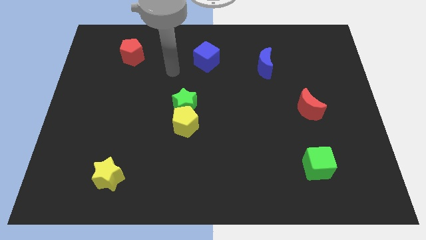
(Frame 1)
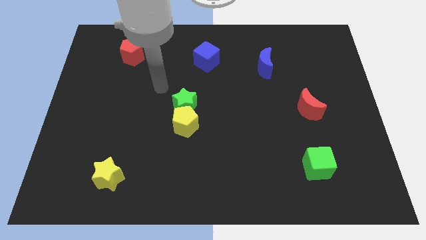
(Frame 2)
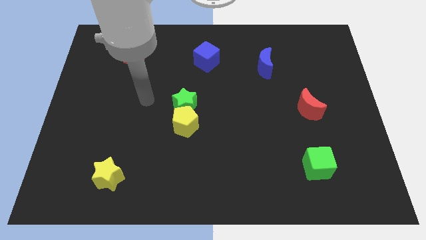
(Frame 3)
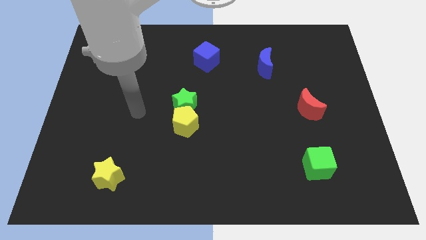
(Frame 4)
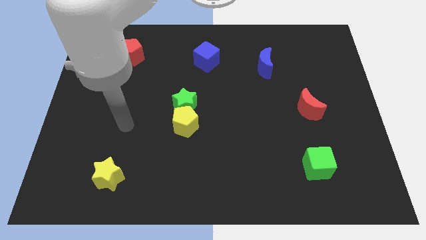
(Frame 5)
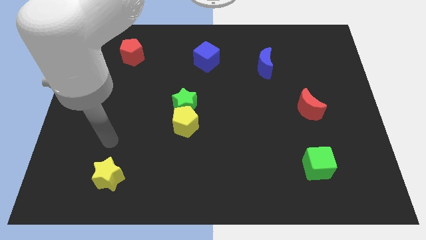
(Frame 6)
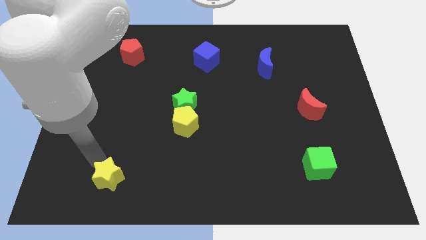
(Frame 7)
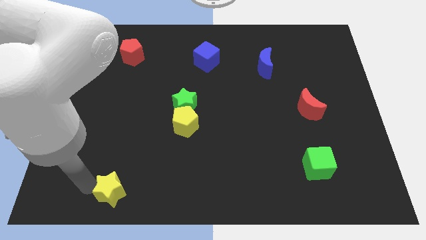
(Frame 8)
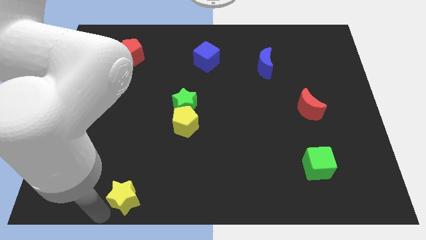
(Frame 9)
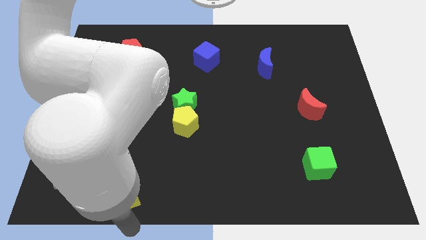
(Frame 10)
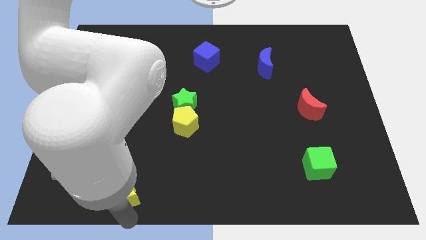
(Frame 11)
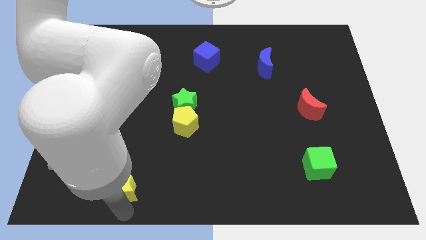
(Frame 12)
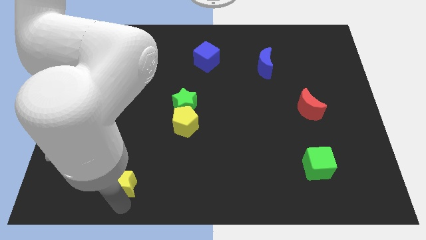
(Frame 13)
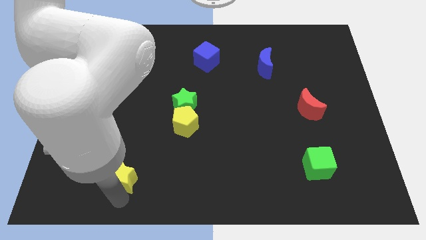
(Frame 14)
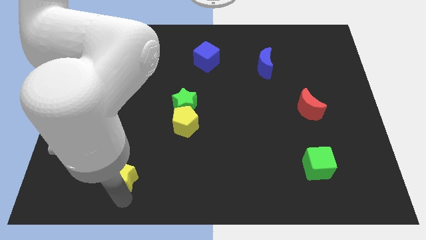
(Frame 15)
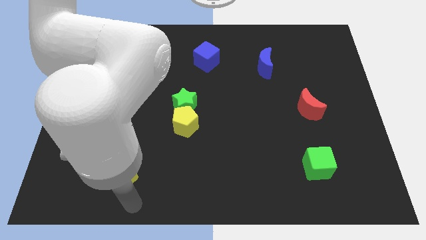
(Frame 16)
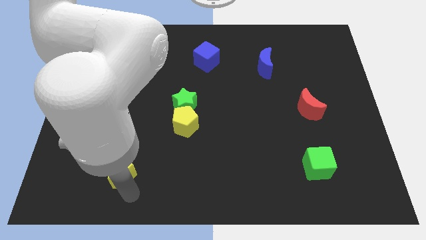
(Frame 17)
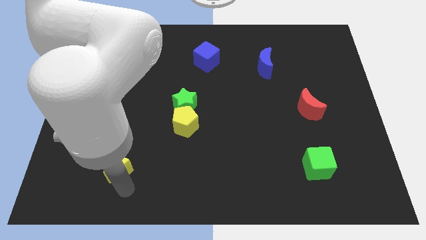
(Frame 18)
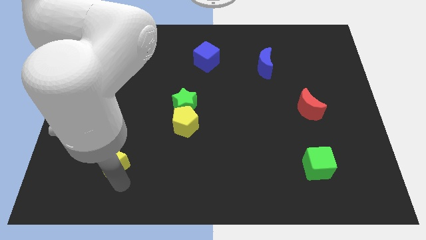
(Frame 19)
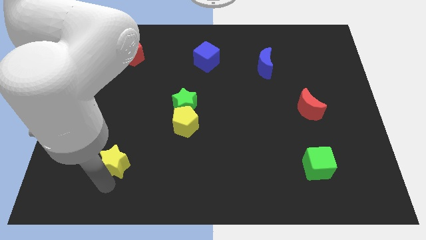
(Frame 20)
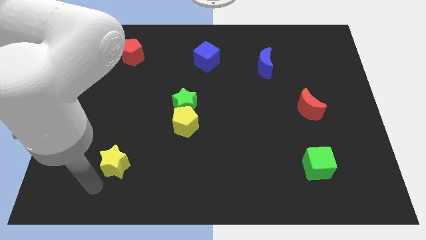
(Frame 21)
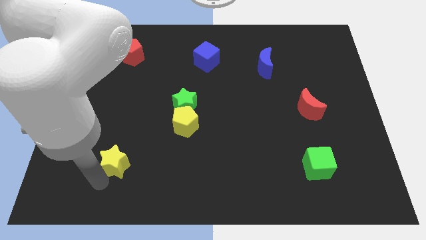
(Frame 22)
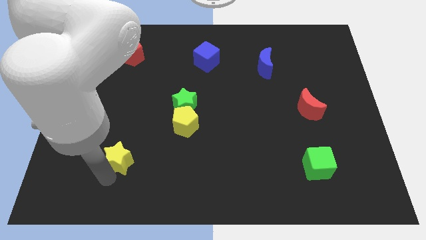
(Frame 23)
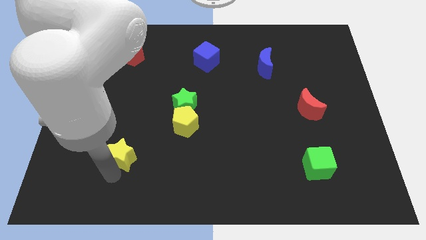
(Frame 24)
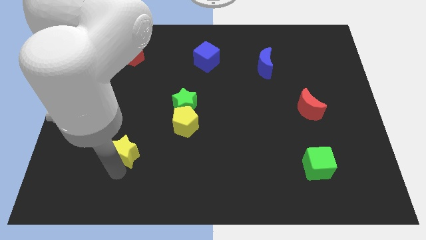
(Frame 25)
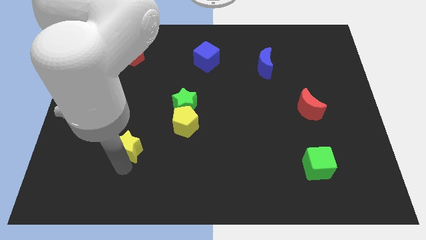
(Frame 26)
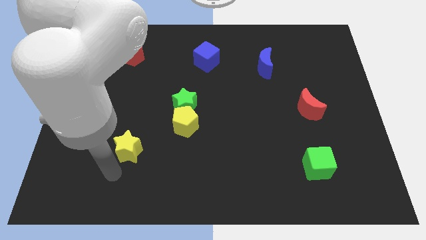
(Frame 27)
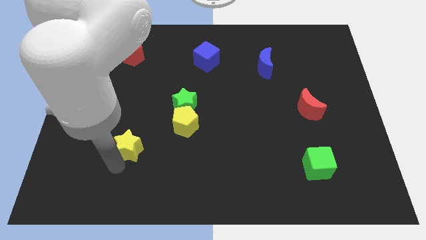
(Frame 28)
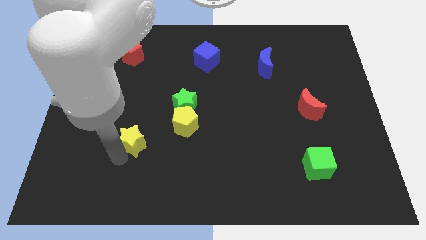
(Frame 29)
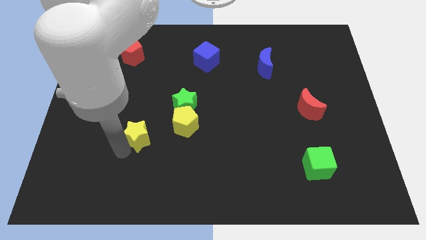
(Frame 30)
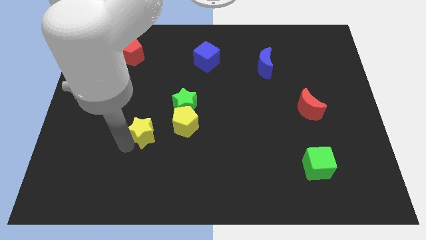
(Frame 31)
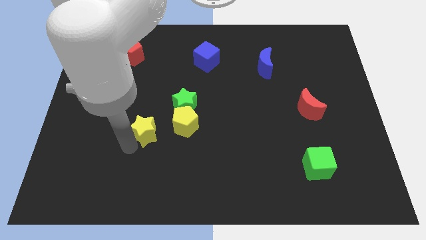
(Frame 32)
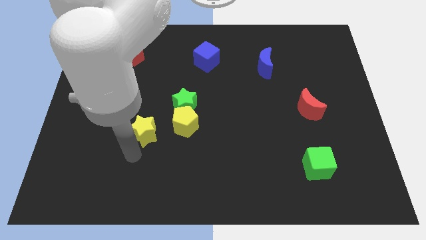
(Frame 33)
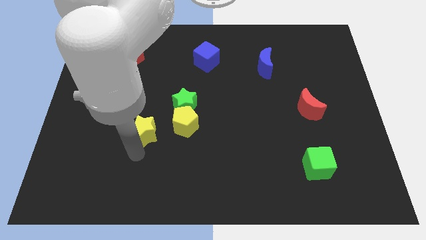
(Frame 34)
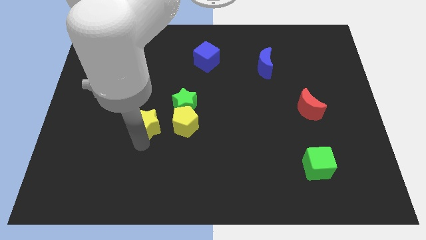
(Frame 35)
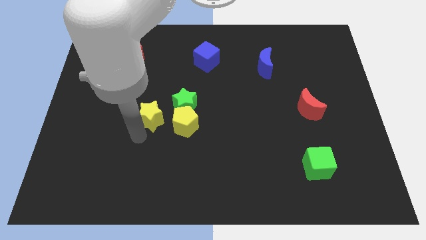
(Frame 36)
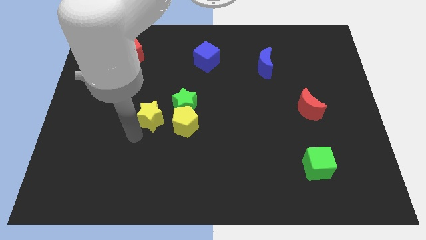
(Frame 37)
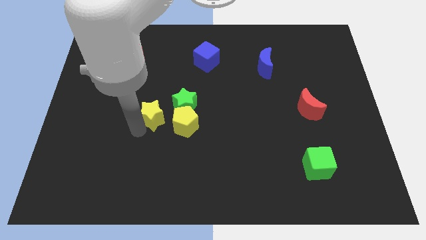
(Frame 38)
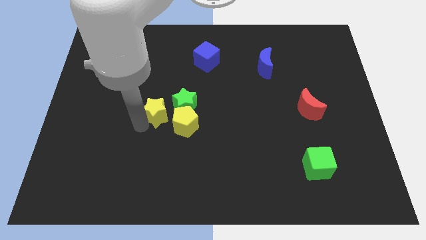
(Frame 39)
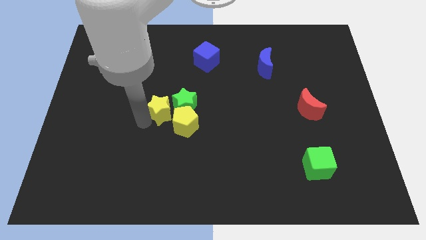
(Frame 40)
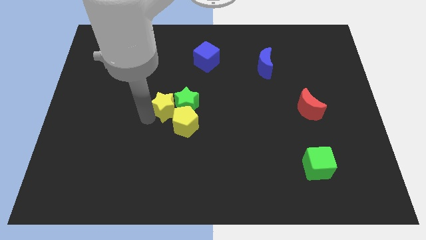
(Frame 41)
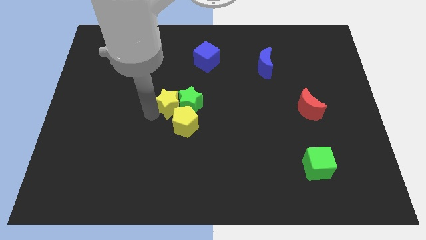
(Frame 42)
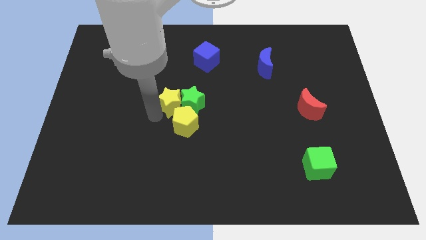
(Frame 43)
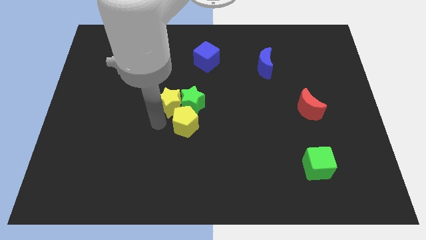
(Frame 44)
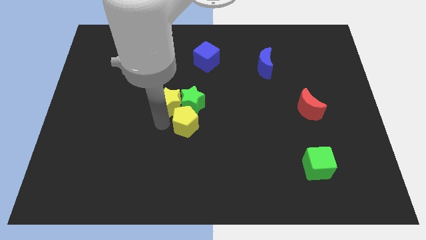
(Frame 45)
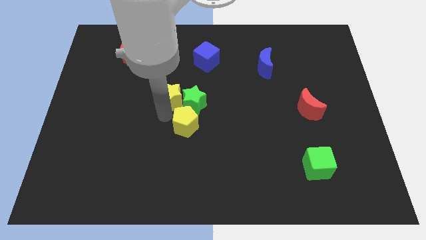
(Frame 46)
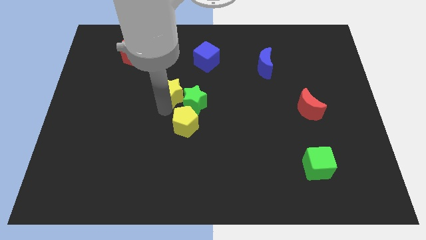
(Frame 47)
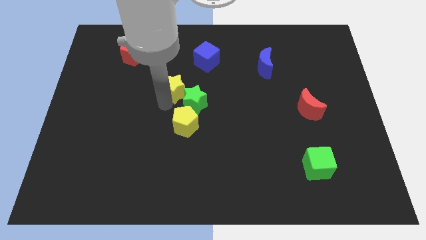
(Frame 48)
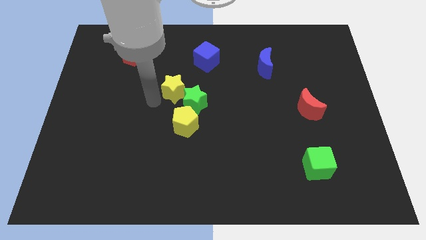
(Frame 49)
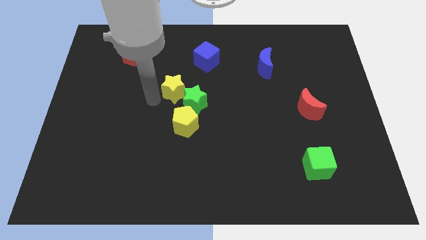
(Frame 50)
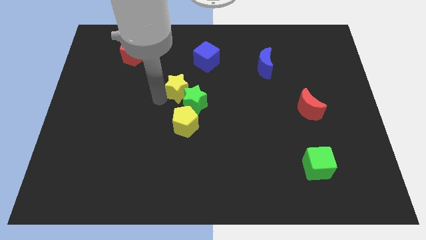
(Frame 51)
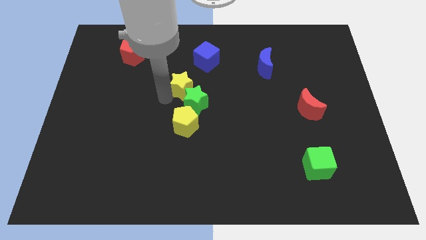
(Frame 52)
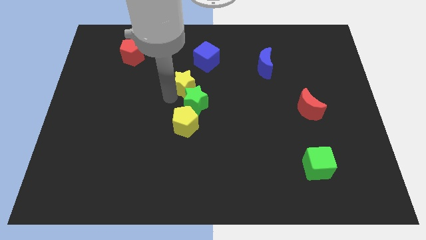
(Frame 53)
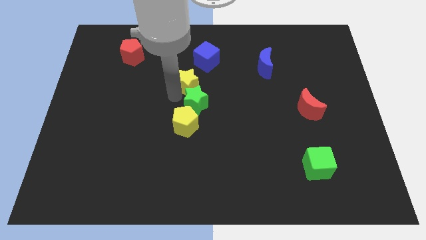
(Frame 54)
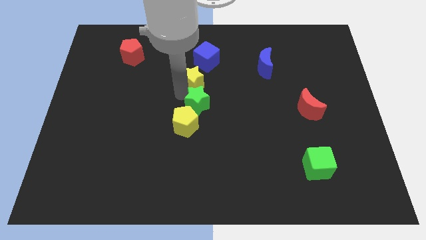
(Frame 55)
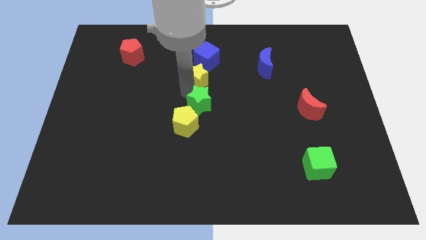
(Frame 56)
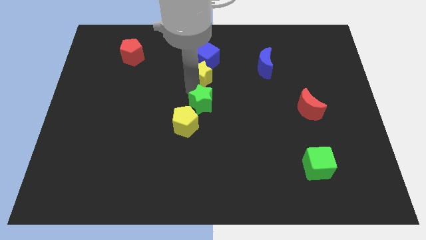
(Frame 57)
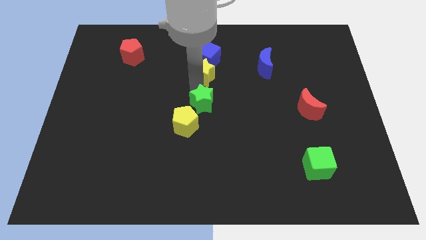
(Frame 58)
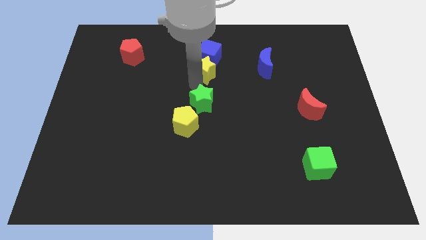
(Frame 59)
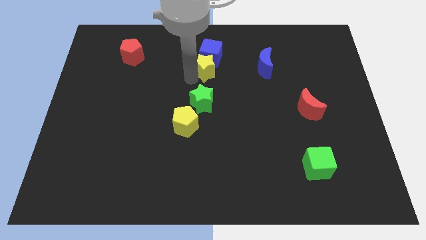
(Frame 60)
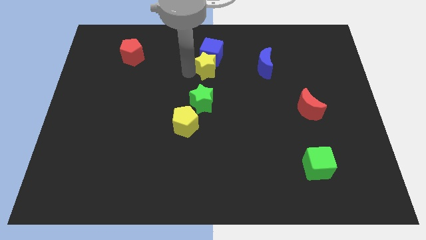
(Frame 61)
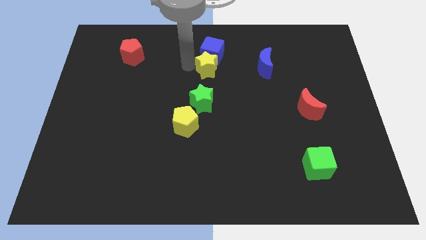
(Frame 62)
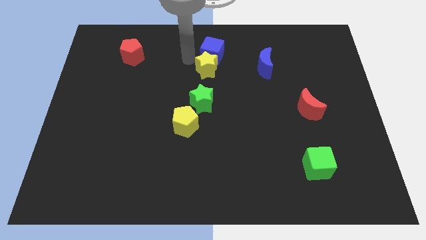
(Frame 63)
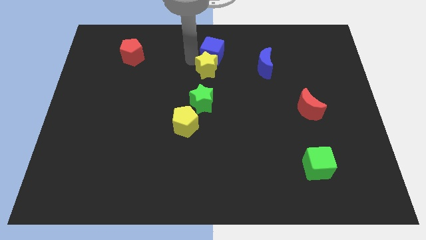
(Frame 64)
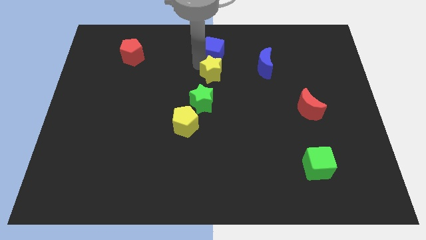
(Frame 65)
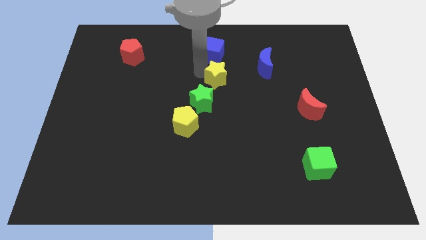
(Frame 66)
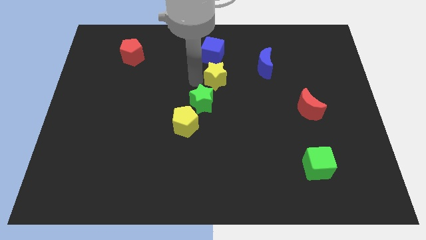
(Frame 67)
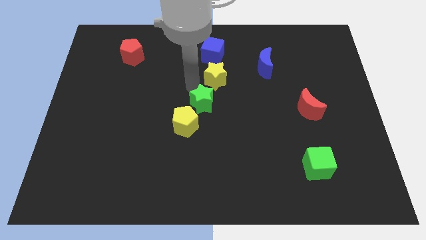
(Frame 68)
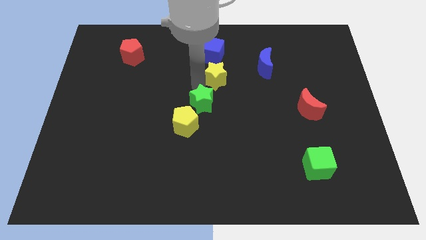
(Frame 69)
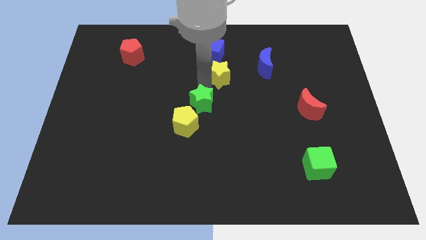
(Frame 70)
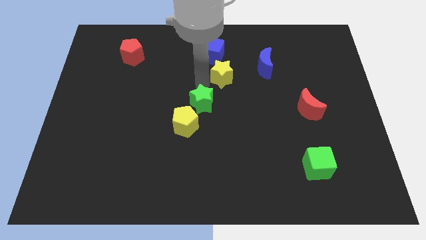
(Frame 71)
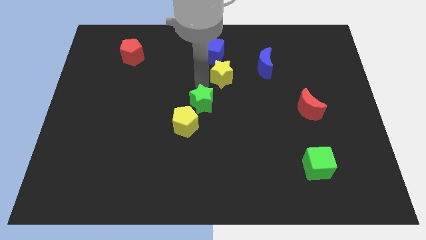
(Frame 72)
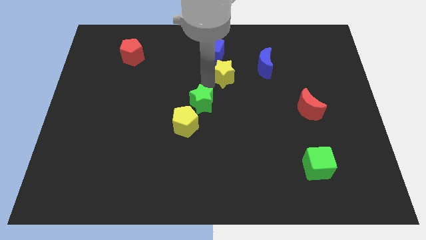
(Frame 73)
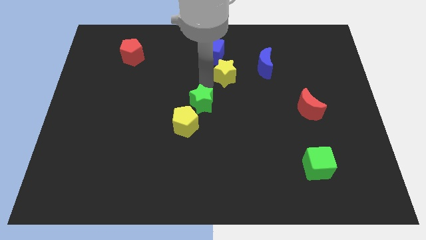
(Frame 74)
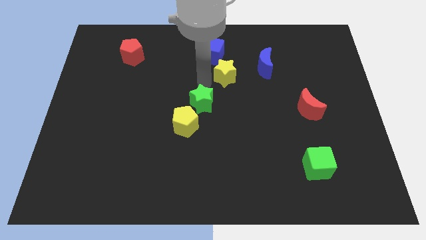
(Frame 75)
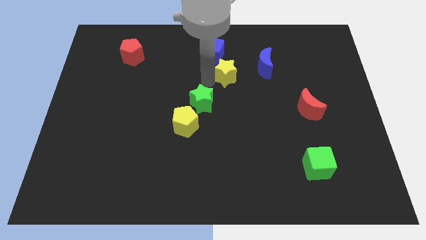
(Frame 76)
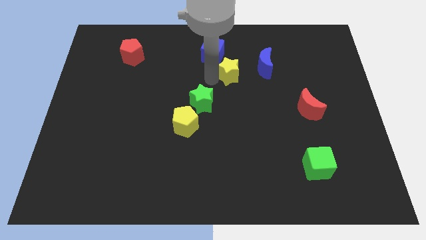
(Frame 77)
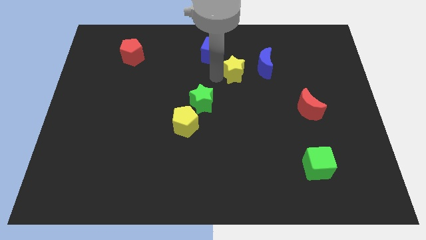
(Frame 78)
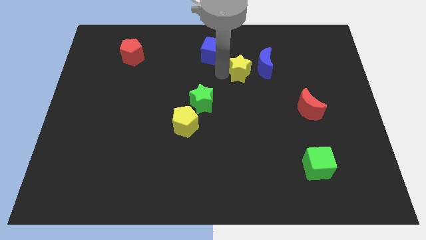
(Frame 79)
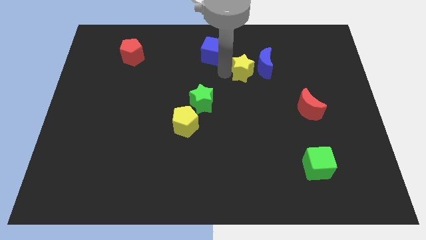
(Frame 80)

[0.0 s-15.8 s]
push the yellow star next to the blue moon
